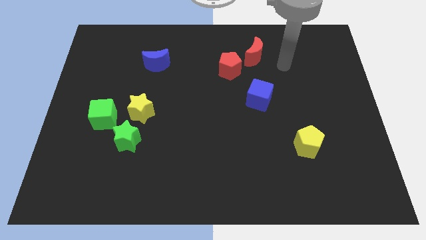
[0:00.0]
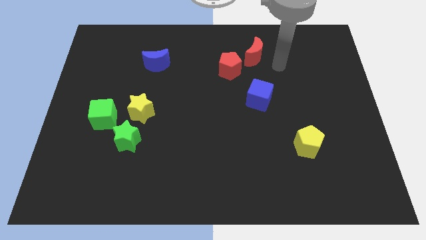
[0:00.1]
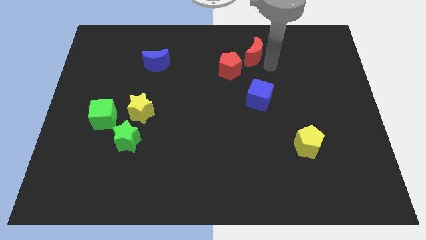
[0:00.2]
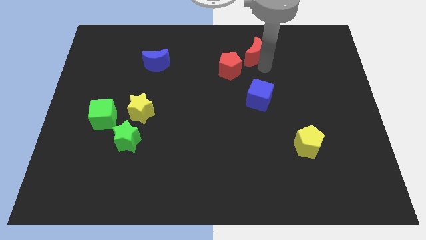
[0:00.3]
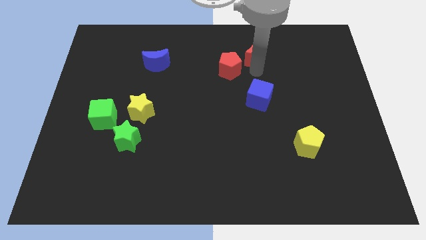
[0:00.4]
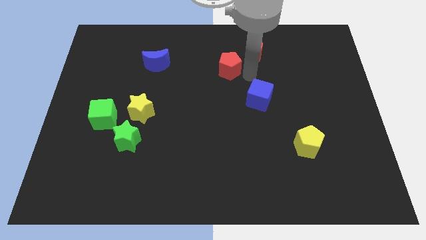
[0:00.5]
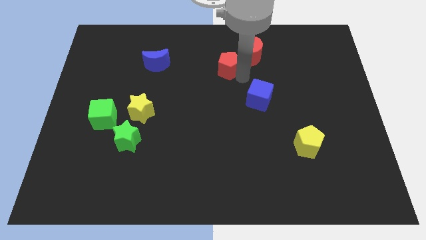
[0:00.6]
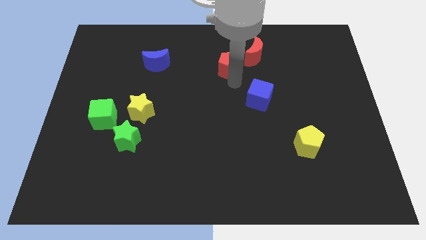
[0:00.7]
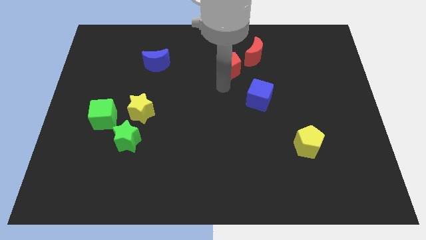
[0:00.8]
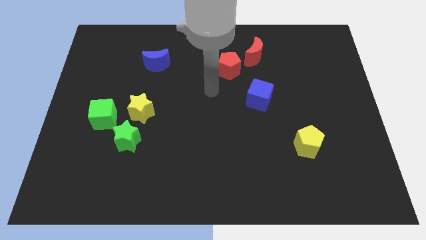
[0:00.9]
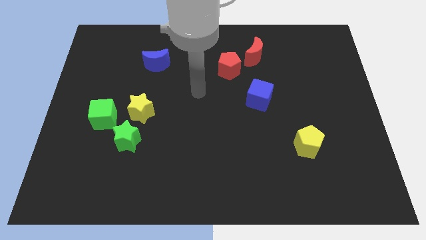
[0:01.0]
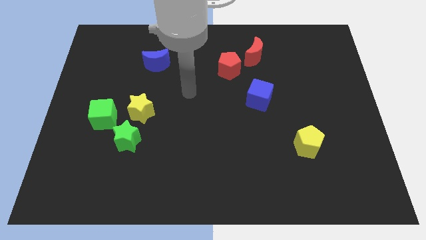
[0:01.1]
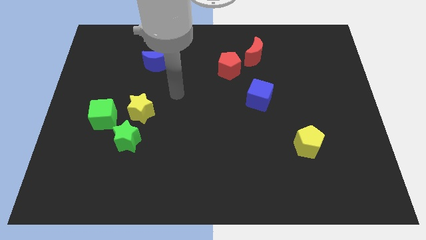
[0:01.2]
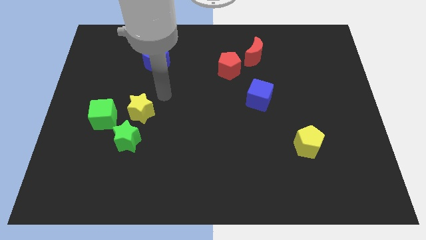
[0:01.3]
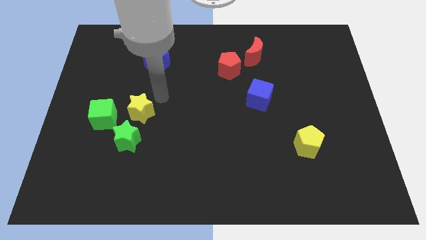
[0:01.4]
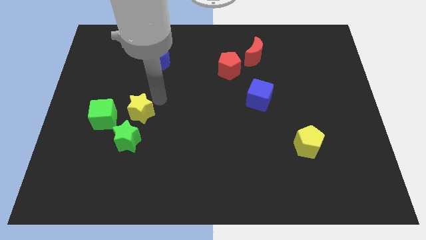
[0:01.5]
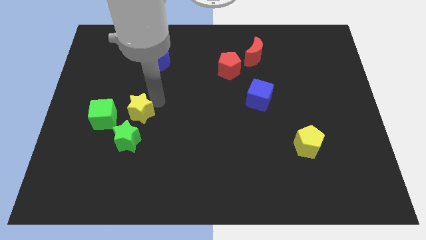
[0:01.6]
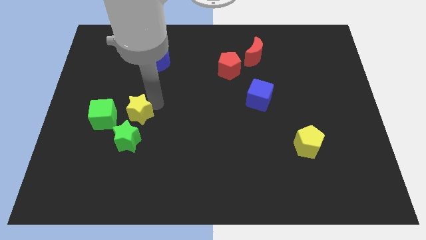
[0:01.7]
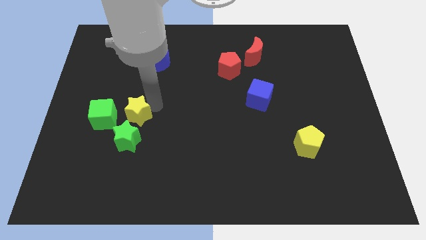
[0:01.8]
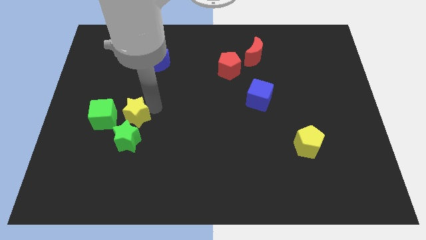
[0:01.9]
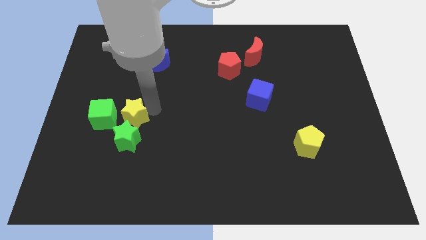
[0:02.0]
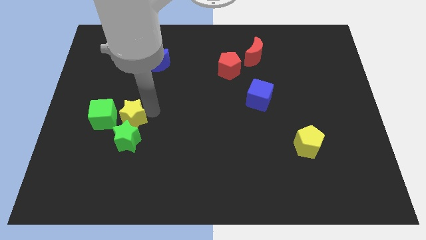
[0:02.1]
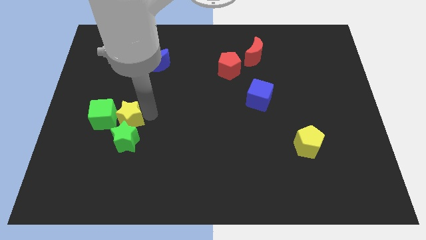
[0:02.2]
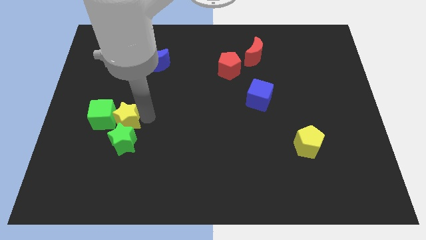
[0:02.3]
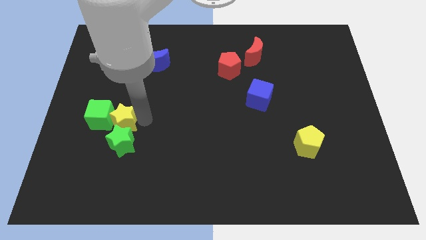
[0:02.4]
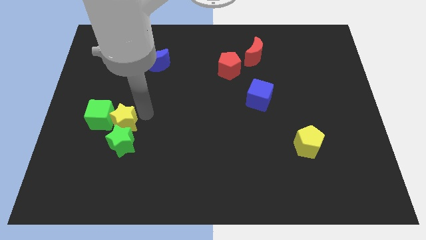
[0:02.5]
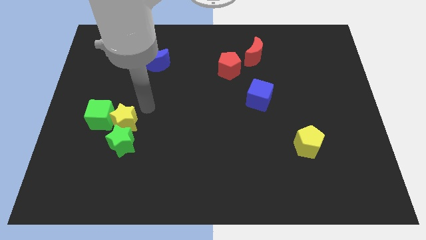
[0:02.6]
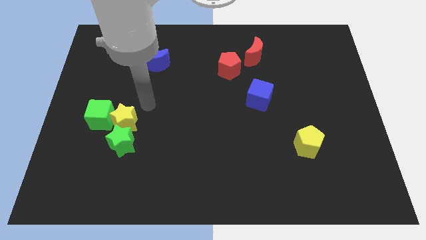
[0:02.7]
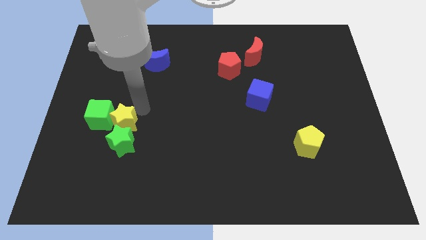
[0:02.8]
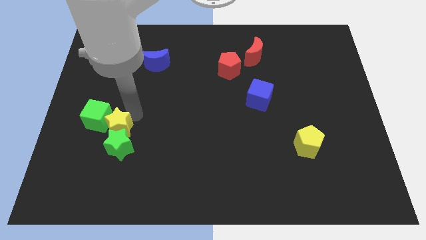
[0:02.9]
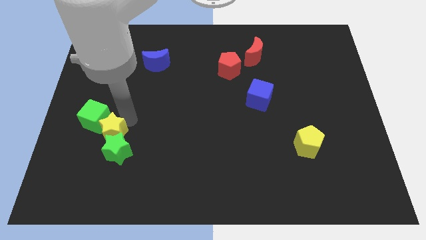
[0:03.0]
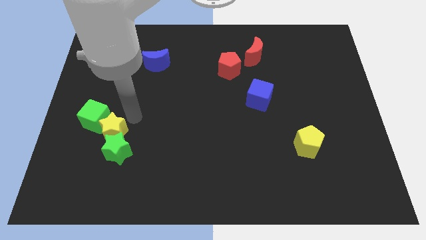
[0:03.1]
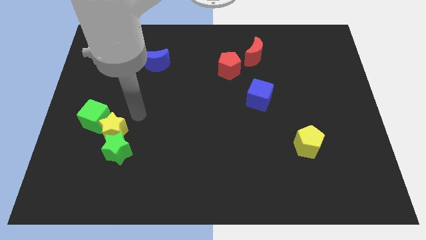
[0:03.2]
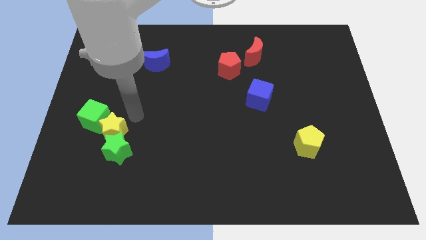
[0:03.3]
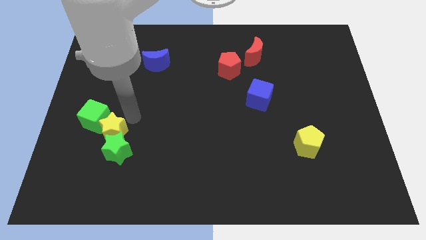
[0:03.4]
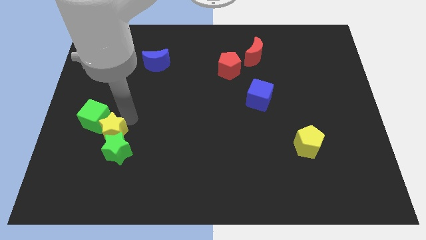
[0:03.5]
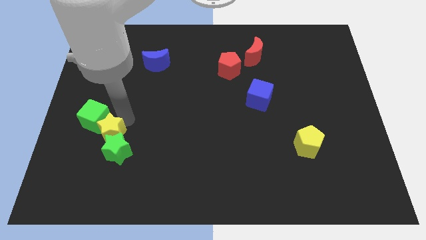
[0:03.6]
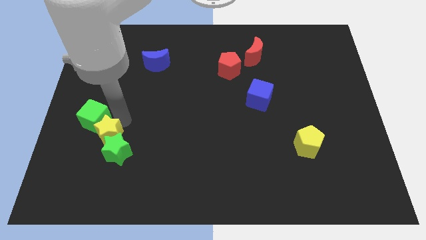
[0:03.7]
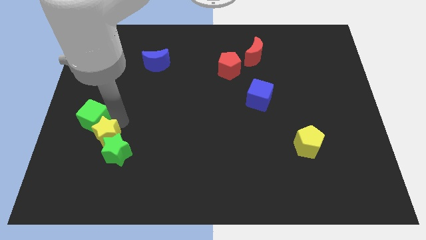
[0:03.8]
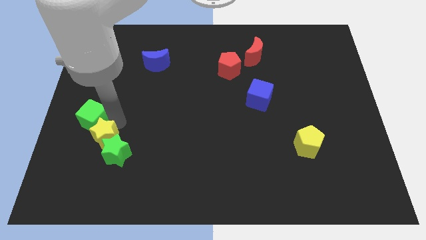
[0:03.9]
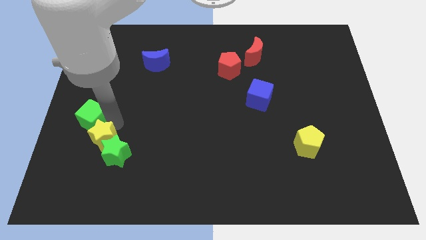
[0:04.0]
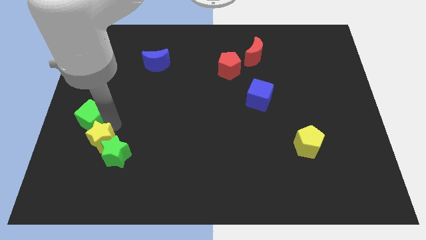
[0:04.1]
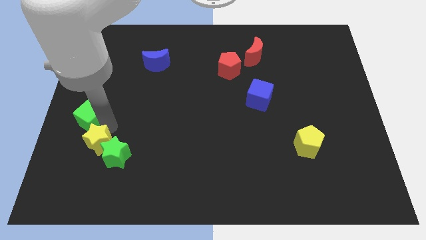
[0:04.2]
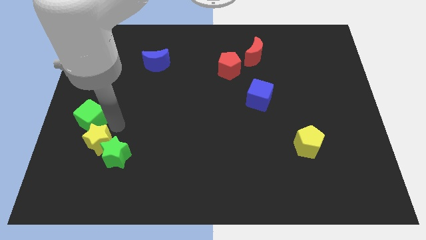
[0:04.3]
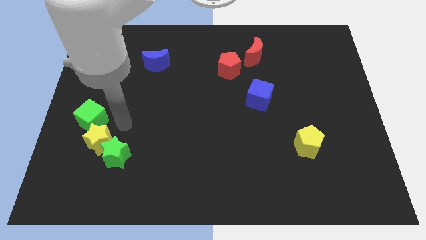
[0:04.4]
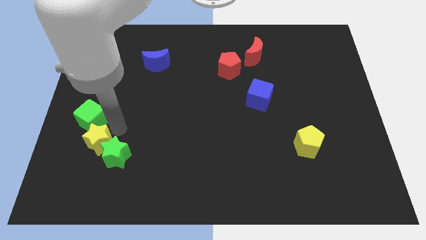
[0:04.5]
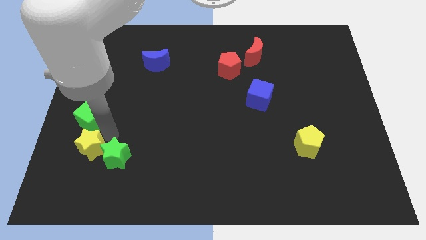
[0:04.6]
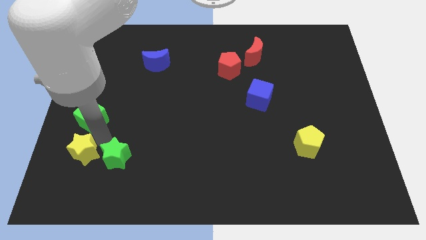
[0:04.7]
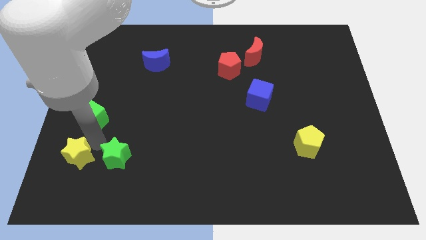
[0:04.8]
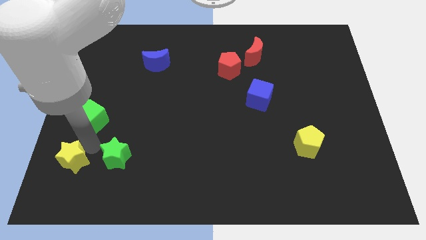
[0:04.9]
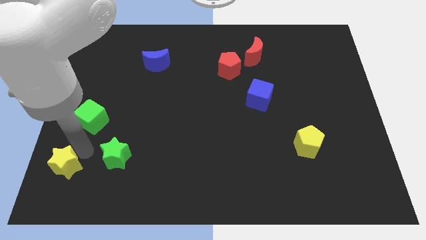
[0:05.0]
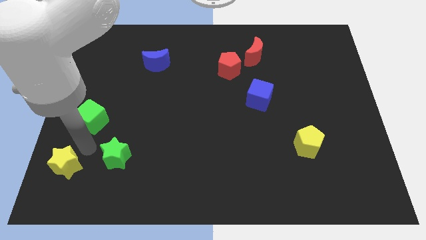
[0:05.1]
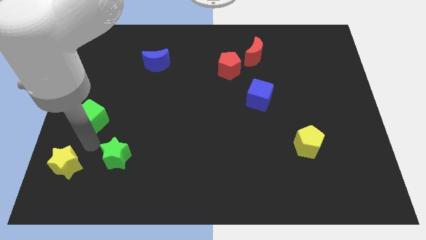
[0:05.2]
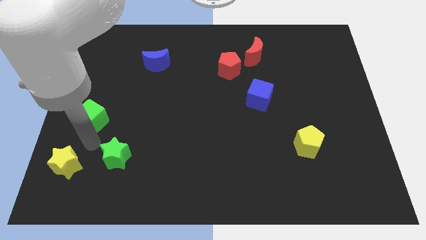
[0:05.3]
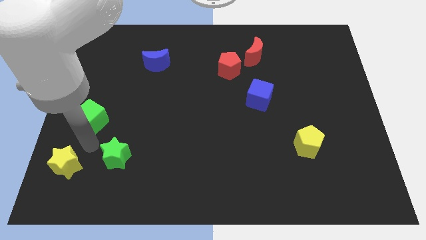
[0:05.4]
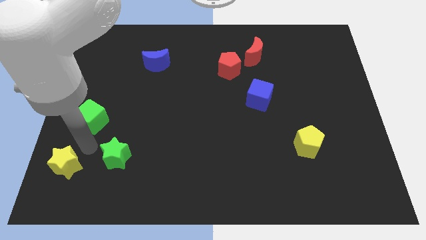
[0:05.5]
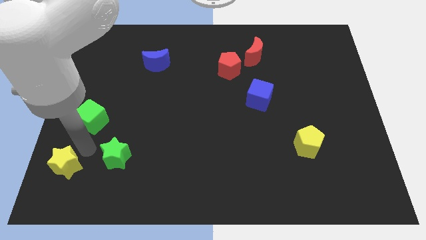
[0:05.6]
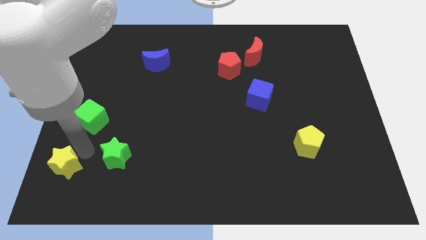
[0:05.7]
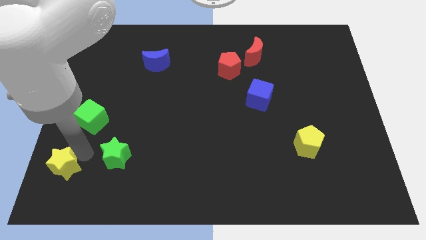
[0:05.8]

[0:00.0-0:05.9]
slide the yellow star to the lower left corner

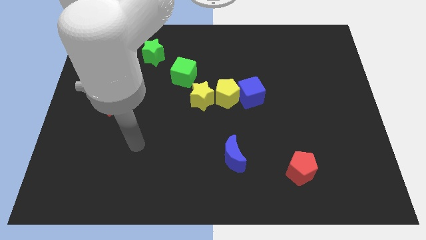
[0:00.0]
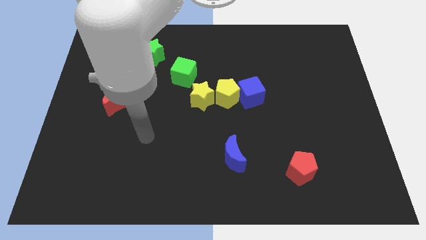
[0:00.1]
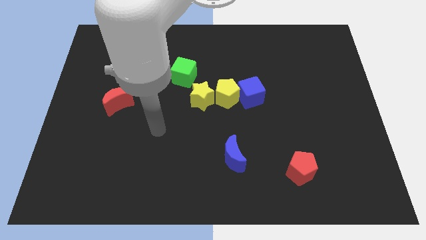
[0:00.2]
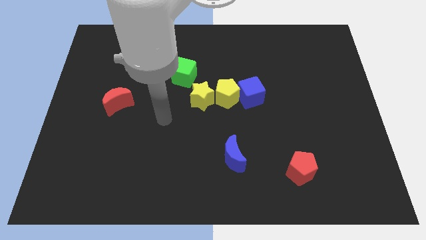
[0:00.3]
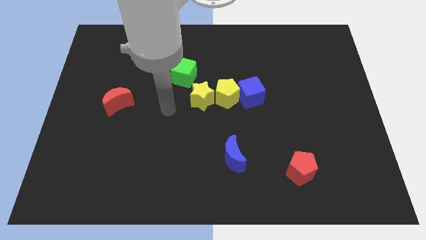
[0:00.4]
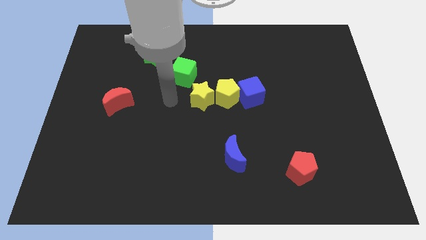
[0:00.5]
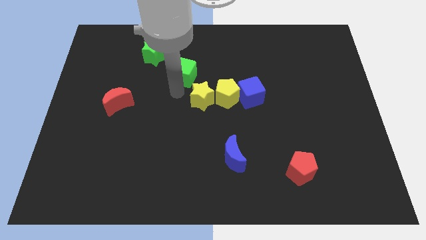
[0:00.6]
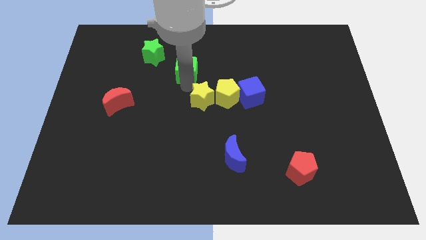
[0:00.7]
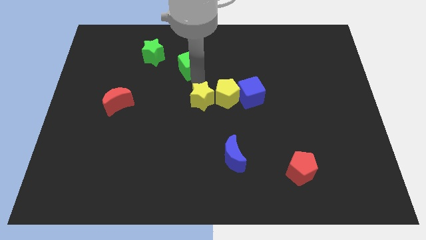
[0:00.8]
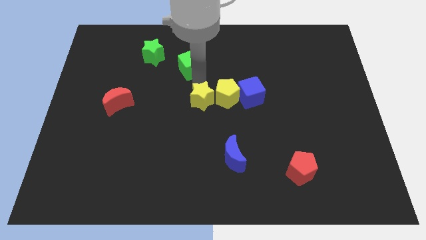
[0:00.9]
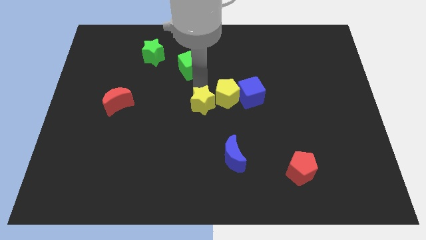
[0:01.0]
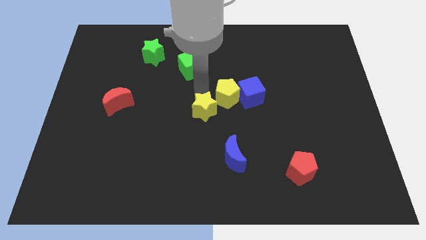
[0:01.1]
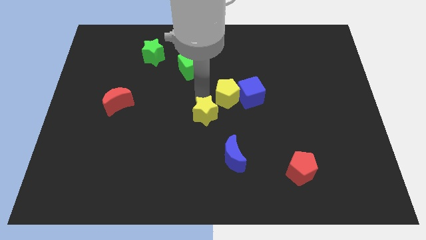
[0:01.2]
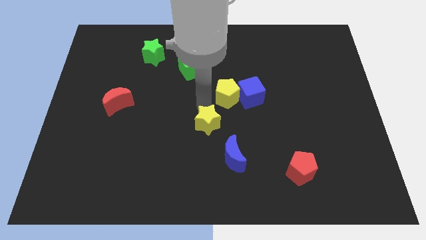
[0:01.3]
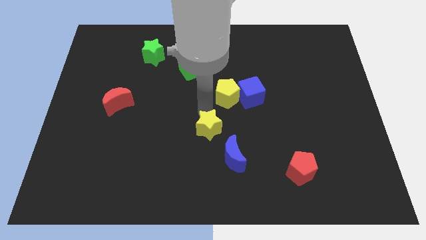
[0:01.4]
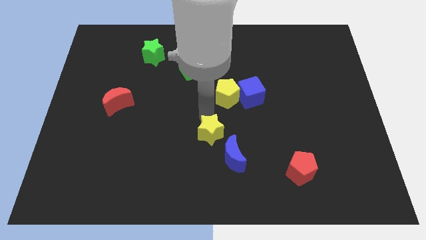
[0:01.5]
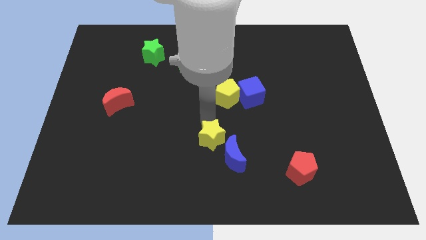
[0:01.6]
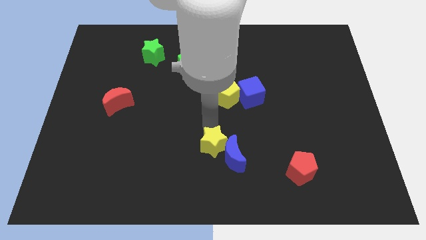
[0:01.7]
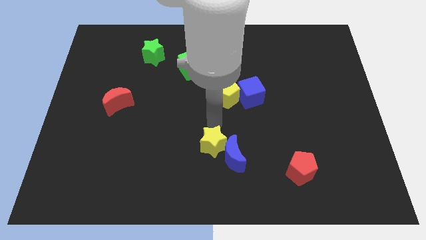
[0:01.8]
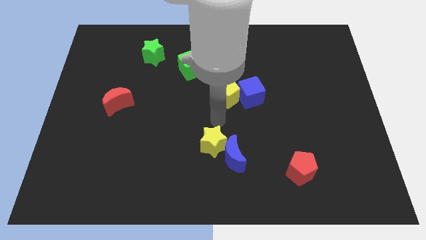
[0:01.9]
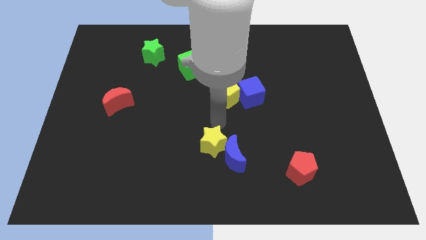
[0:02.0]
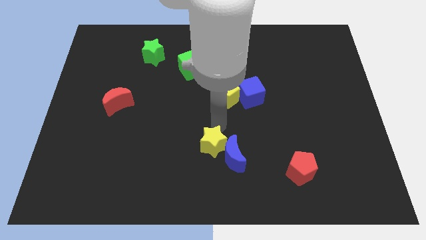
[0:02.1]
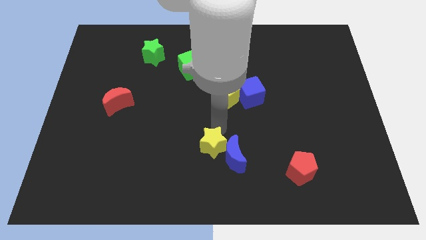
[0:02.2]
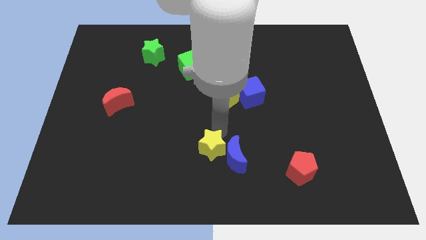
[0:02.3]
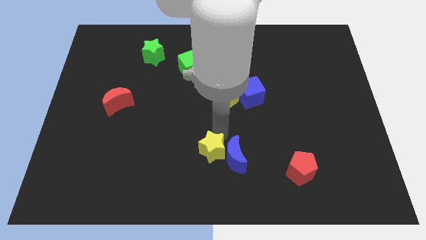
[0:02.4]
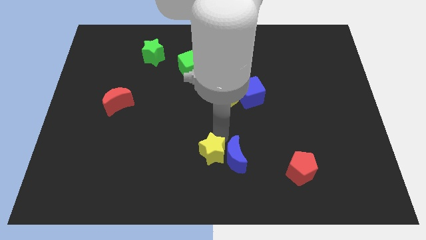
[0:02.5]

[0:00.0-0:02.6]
move the yellow star to the bottom side
